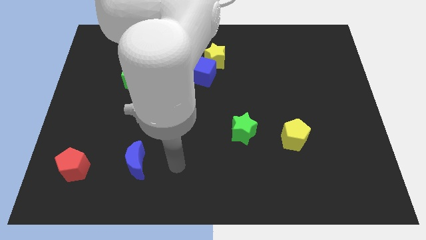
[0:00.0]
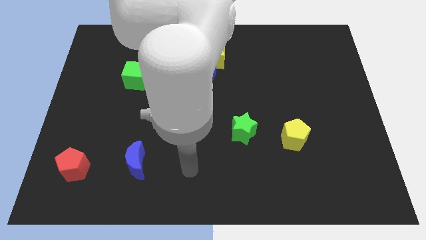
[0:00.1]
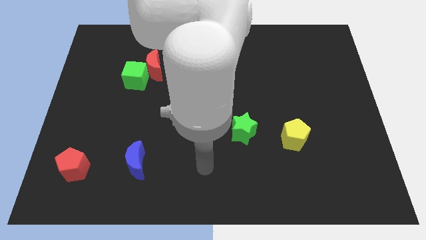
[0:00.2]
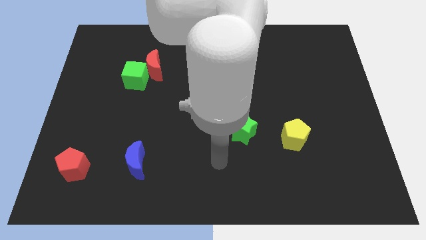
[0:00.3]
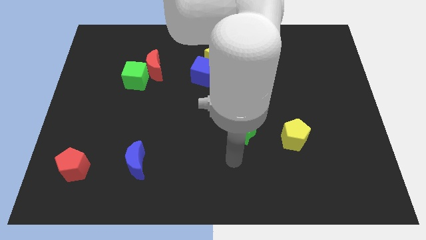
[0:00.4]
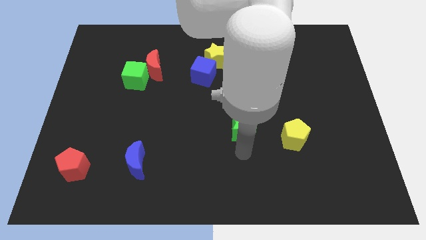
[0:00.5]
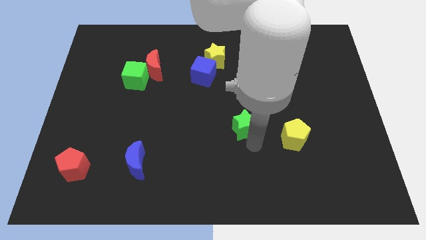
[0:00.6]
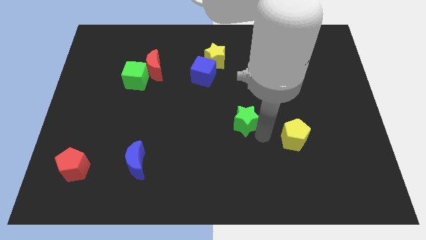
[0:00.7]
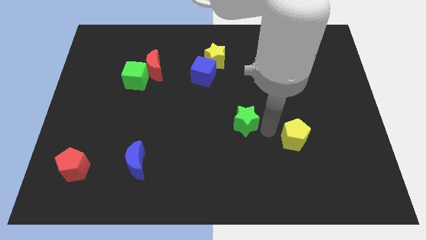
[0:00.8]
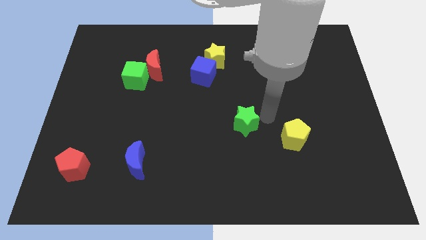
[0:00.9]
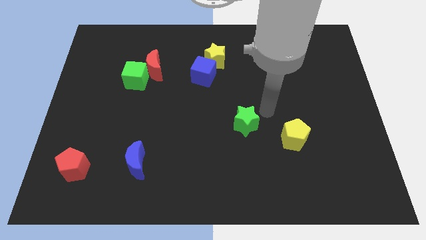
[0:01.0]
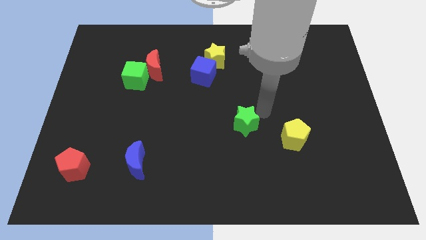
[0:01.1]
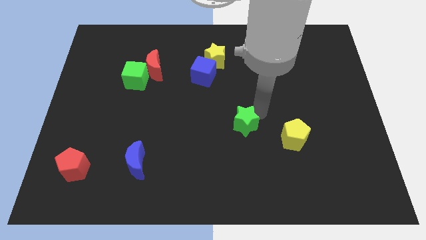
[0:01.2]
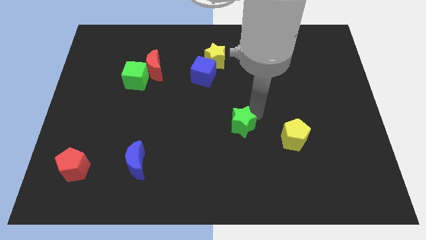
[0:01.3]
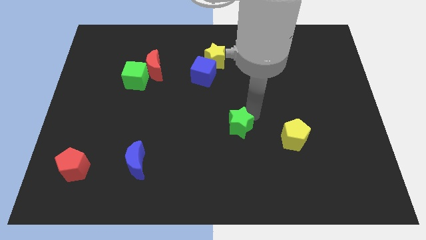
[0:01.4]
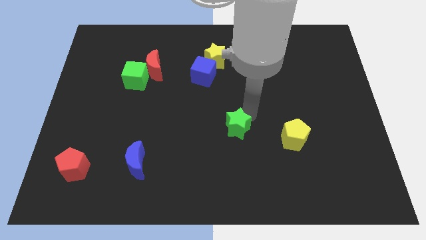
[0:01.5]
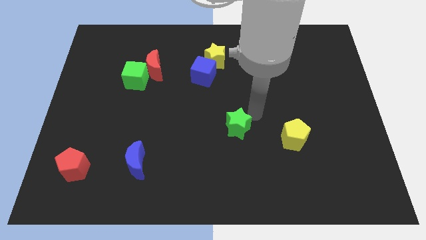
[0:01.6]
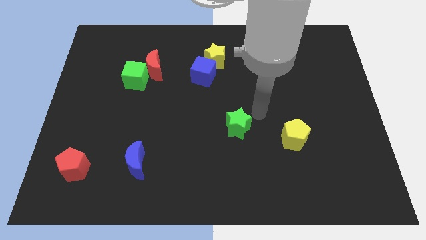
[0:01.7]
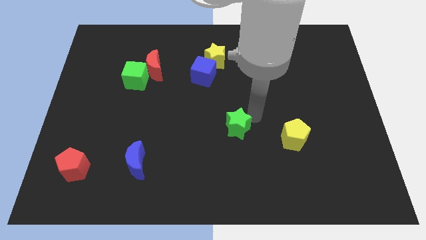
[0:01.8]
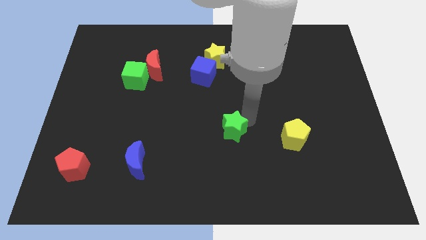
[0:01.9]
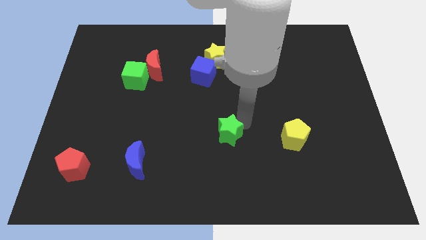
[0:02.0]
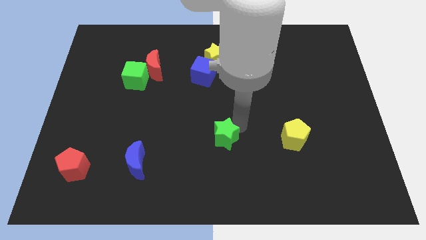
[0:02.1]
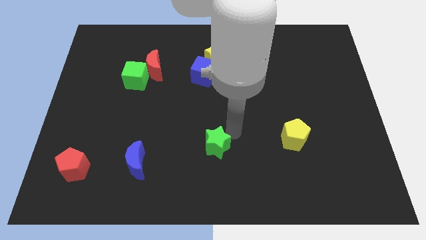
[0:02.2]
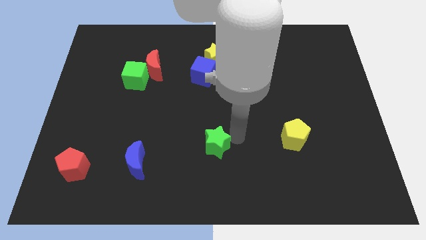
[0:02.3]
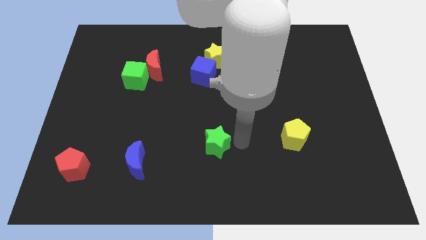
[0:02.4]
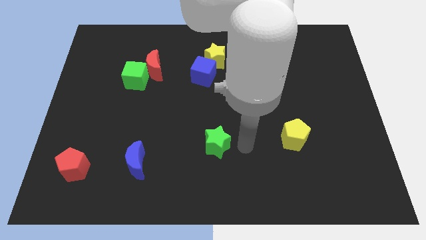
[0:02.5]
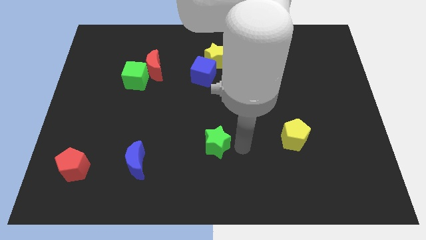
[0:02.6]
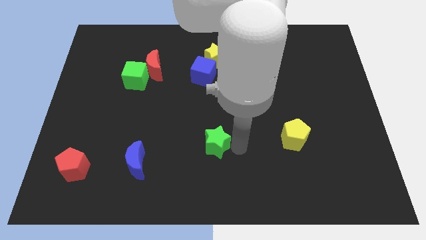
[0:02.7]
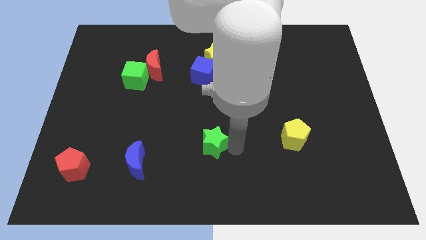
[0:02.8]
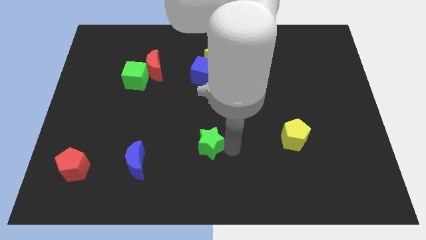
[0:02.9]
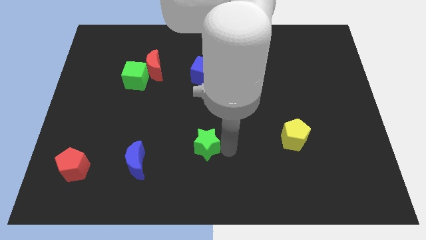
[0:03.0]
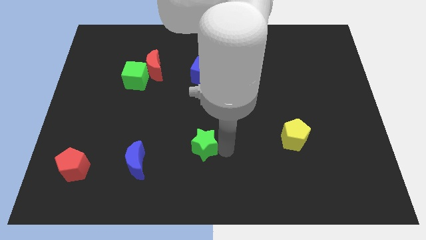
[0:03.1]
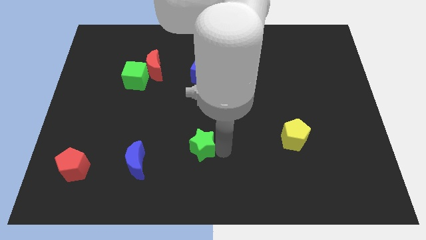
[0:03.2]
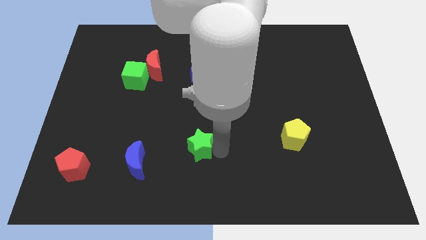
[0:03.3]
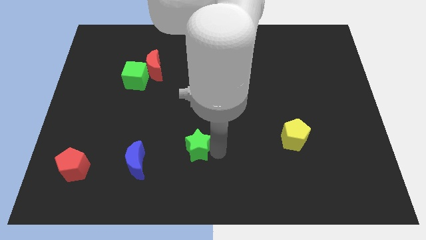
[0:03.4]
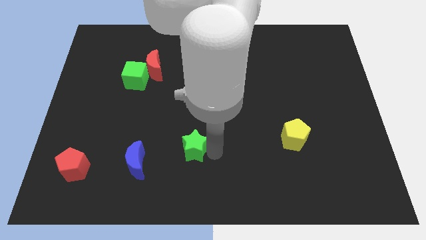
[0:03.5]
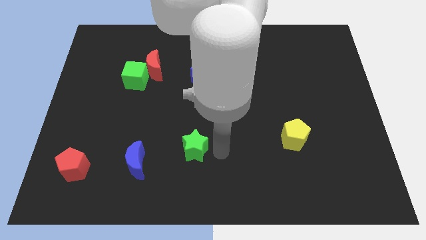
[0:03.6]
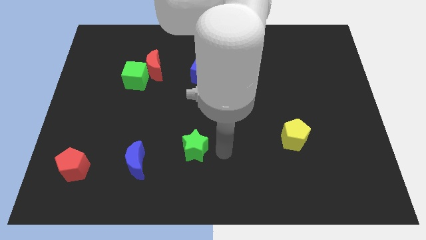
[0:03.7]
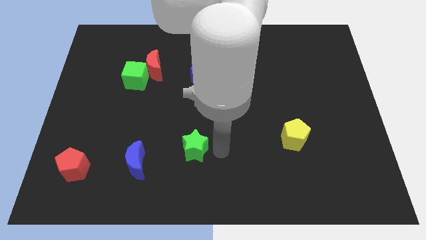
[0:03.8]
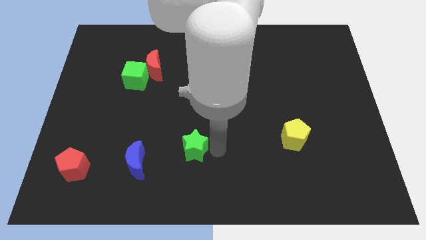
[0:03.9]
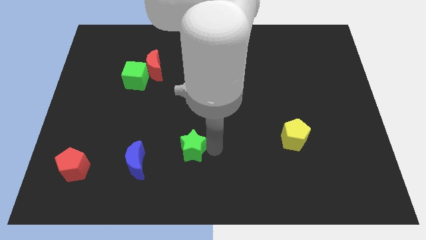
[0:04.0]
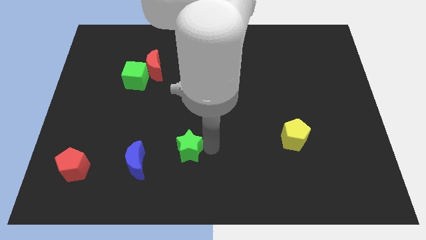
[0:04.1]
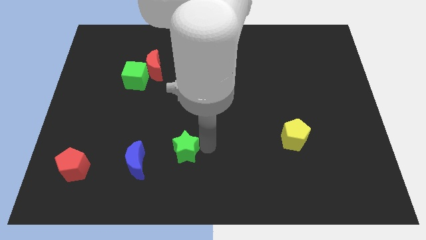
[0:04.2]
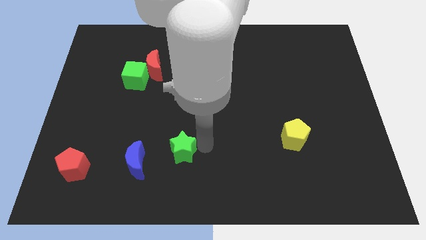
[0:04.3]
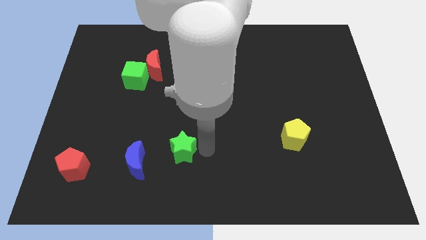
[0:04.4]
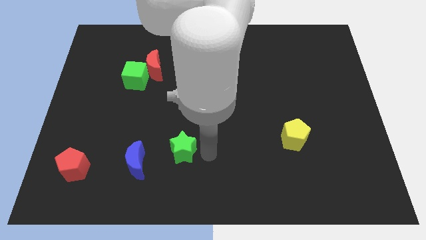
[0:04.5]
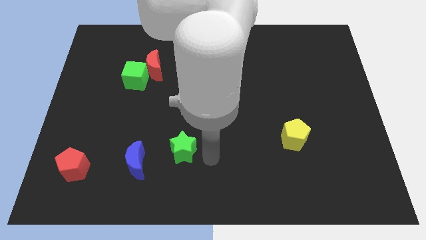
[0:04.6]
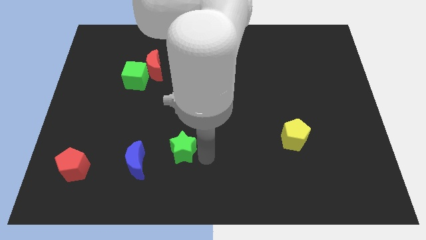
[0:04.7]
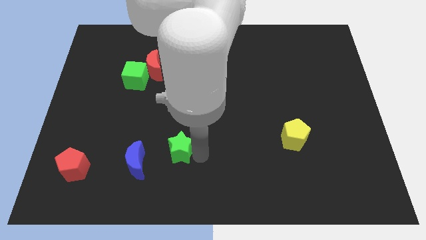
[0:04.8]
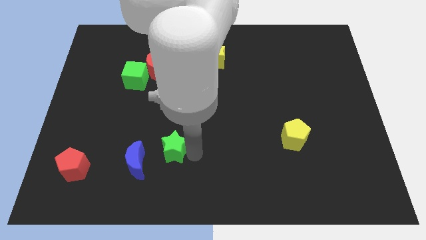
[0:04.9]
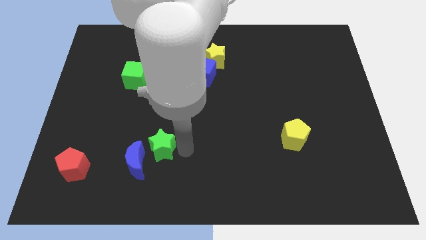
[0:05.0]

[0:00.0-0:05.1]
put the green star to the blue moon

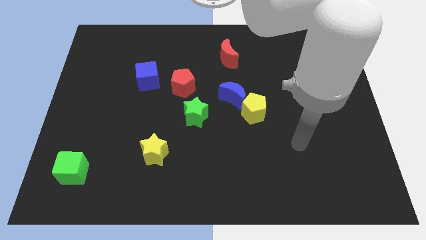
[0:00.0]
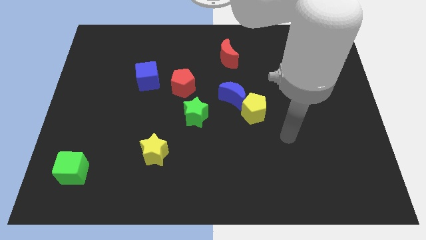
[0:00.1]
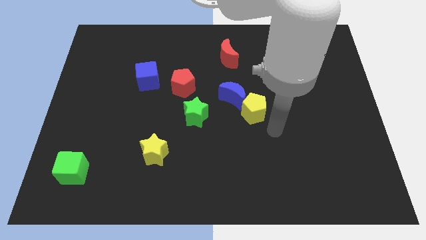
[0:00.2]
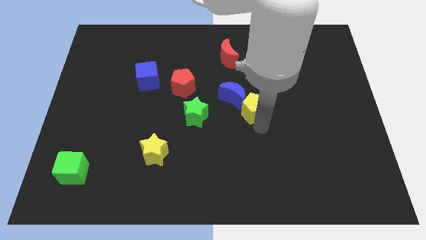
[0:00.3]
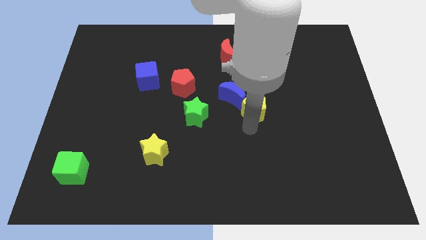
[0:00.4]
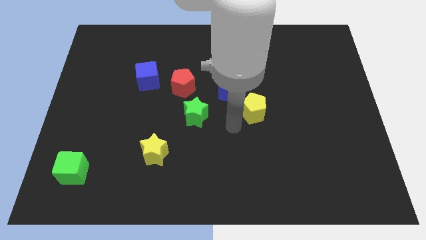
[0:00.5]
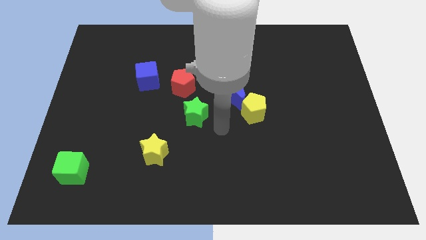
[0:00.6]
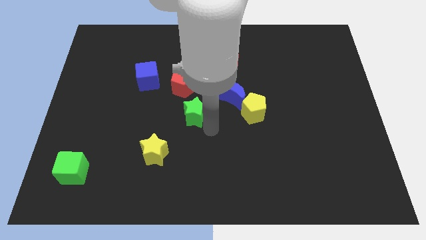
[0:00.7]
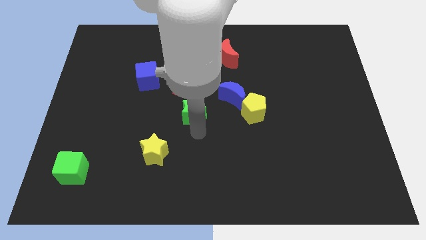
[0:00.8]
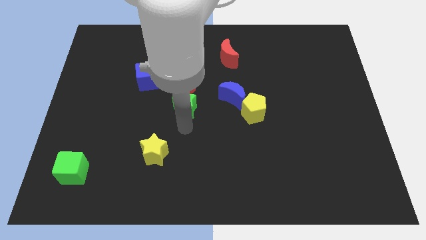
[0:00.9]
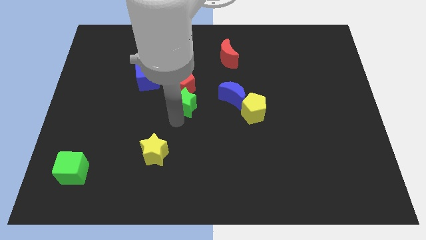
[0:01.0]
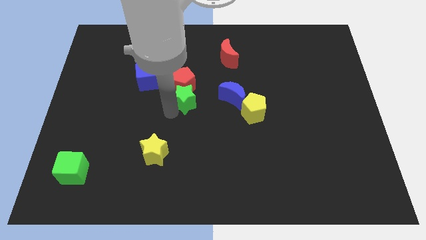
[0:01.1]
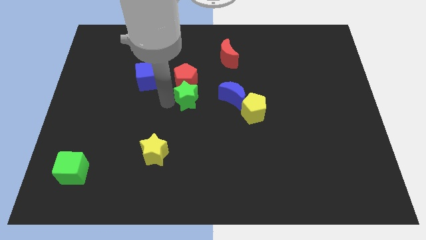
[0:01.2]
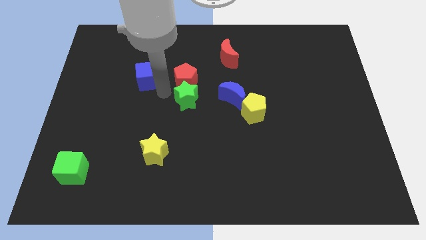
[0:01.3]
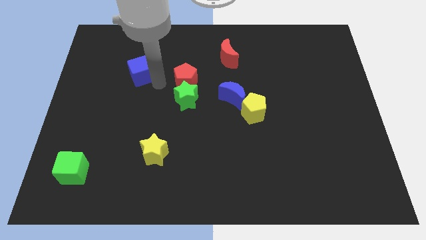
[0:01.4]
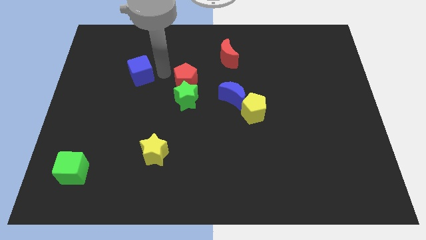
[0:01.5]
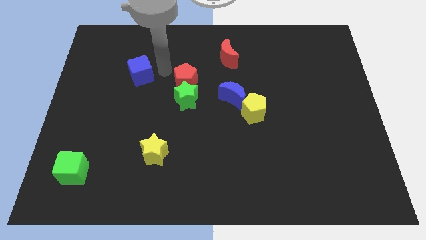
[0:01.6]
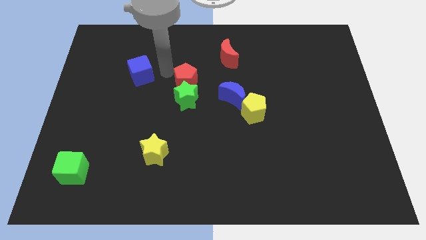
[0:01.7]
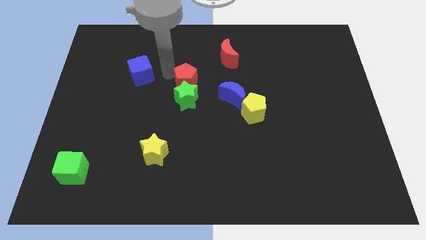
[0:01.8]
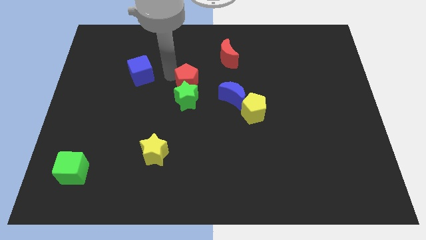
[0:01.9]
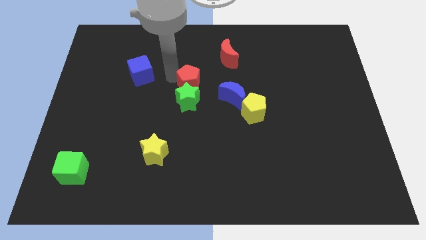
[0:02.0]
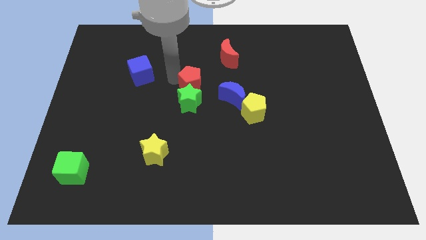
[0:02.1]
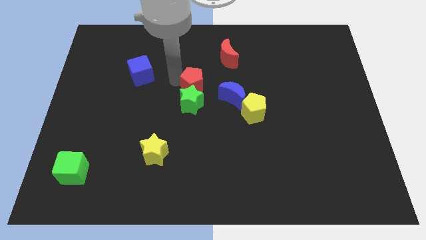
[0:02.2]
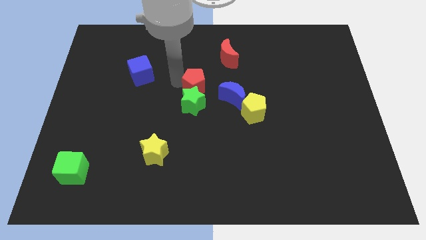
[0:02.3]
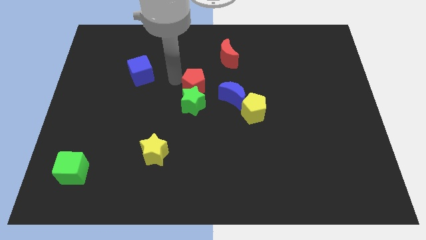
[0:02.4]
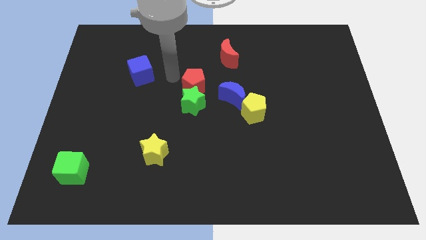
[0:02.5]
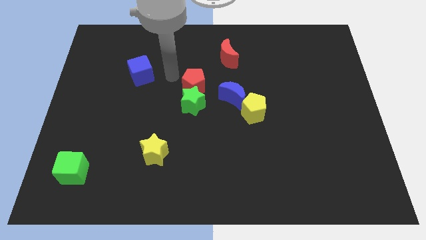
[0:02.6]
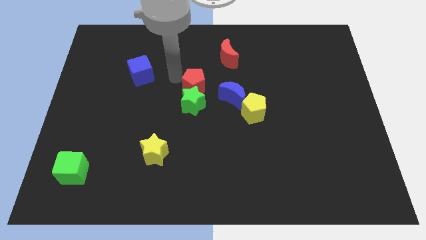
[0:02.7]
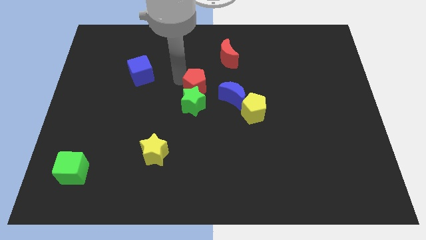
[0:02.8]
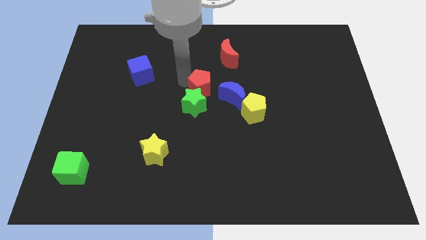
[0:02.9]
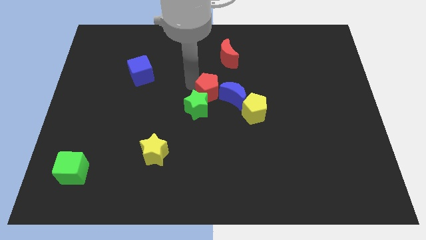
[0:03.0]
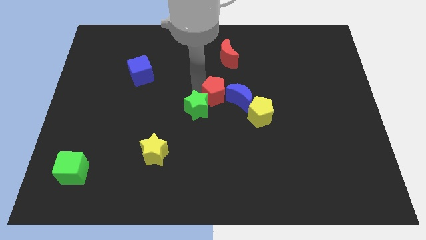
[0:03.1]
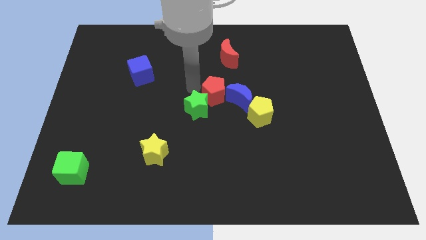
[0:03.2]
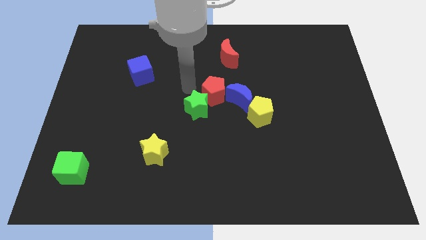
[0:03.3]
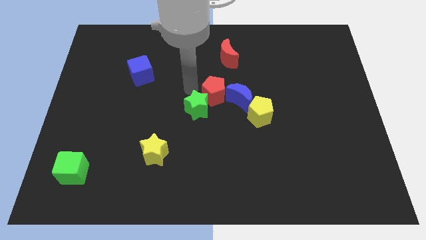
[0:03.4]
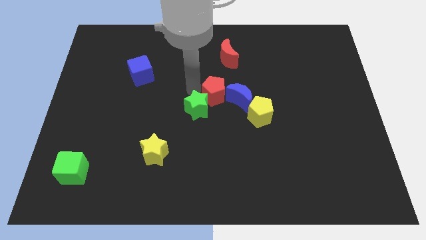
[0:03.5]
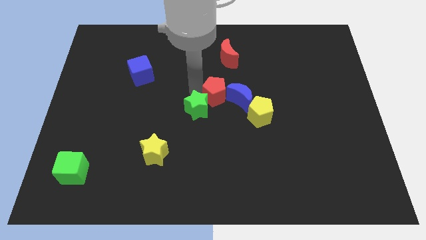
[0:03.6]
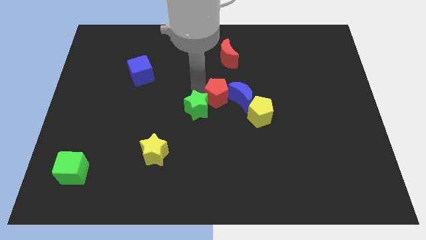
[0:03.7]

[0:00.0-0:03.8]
slide the red pentagon to the blue moon
